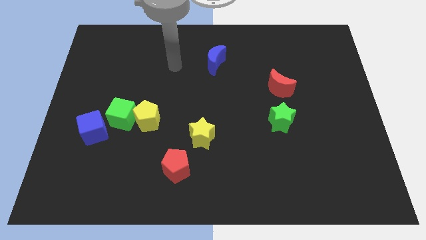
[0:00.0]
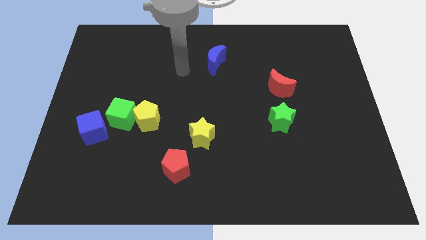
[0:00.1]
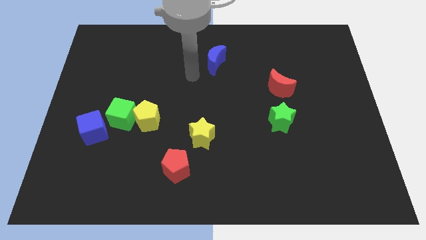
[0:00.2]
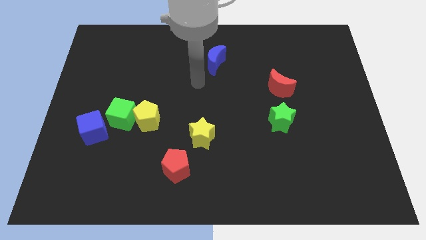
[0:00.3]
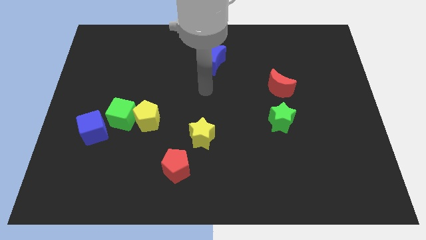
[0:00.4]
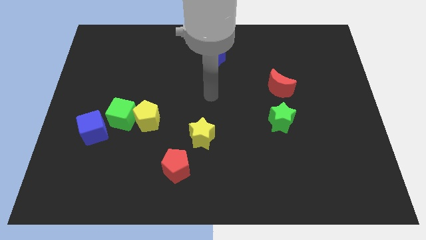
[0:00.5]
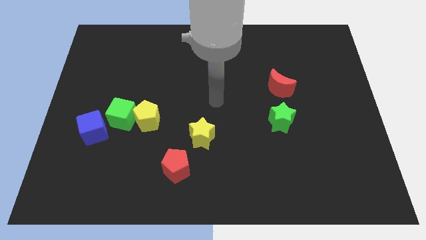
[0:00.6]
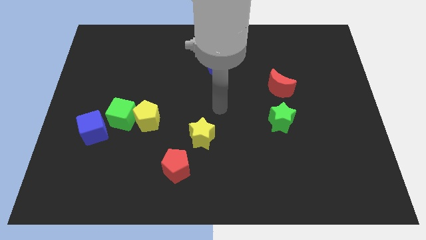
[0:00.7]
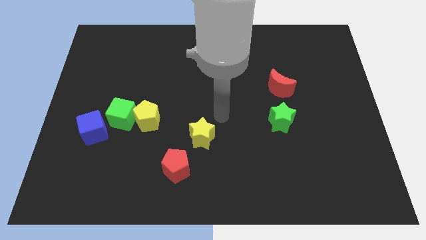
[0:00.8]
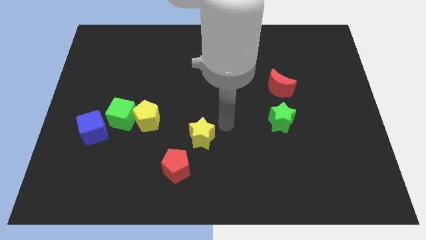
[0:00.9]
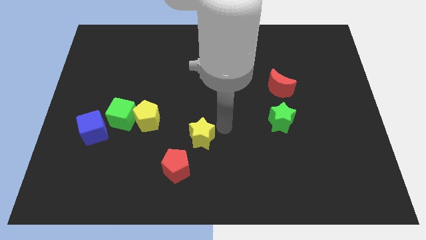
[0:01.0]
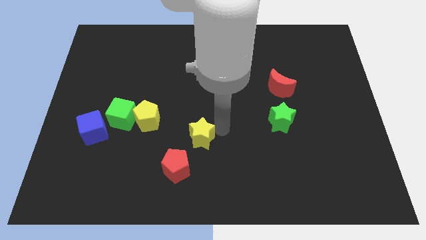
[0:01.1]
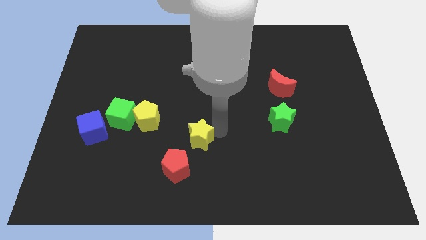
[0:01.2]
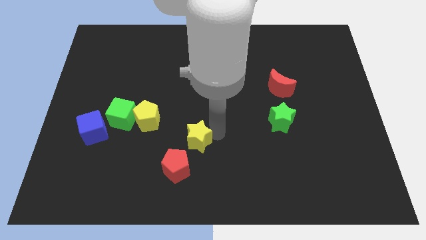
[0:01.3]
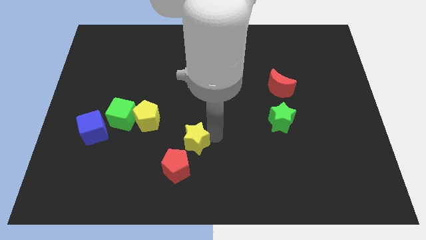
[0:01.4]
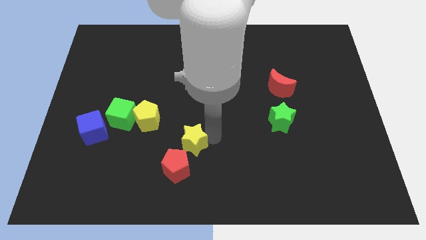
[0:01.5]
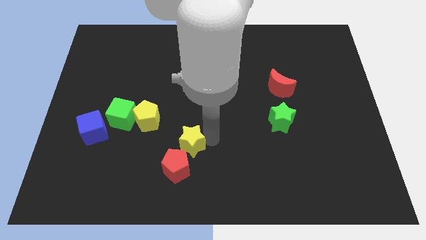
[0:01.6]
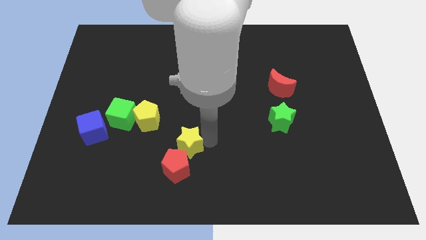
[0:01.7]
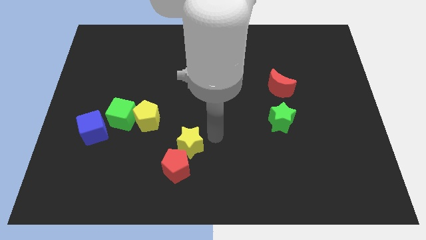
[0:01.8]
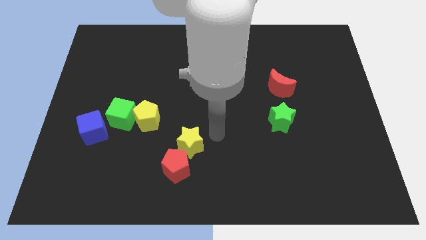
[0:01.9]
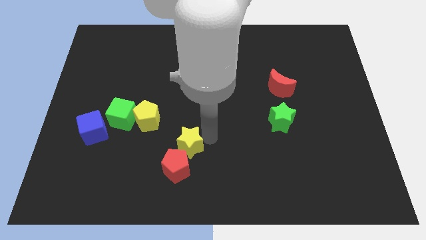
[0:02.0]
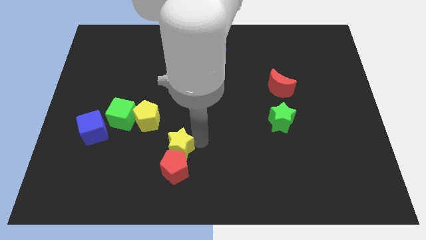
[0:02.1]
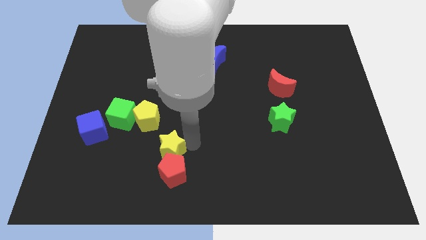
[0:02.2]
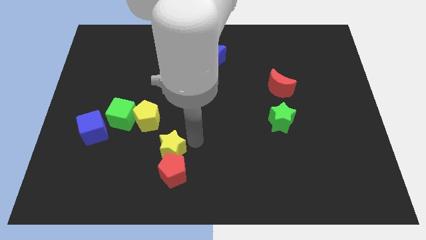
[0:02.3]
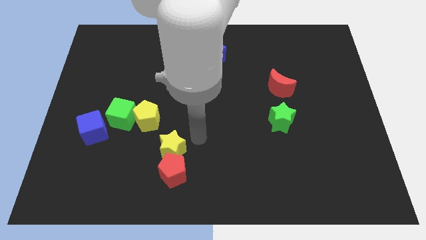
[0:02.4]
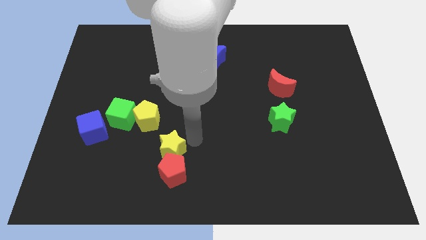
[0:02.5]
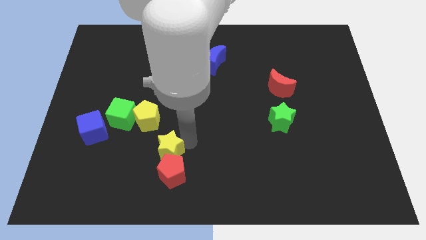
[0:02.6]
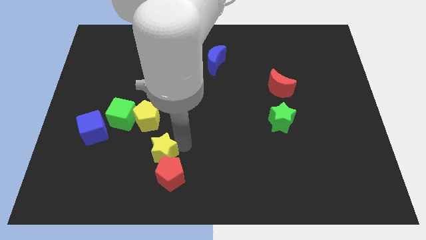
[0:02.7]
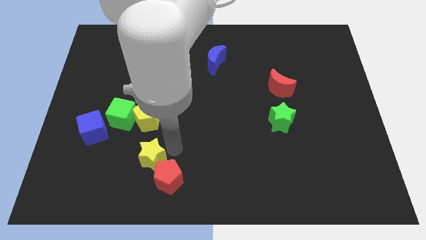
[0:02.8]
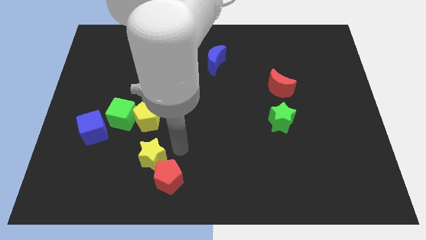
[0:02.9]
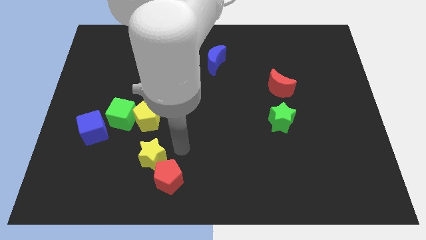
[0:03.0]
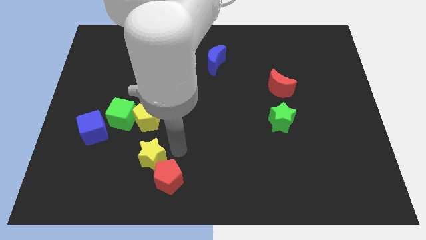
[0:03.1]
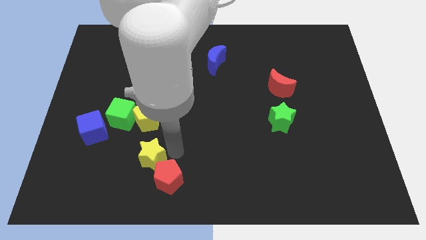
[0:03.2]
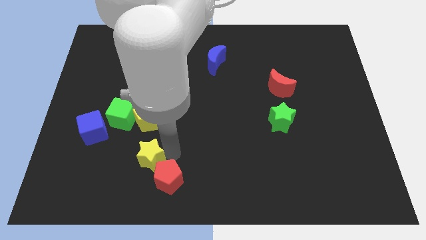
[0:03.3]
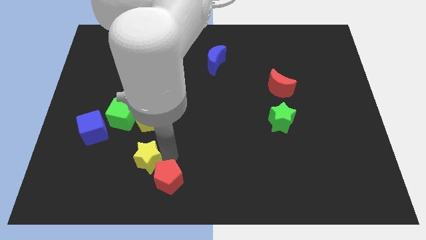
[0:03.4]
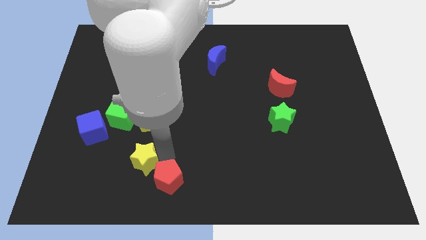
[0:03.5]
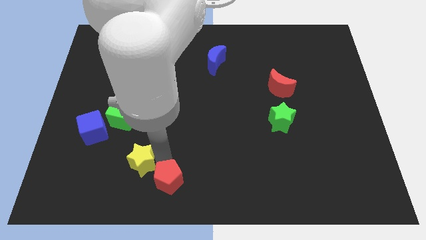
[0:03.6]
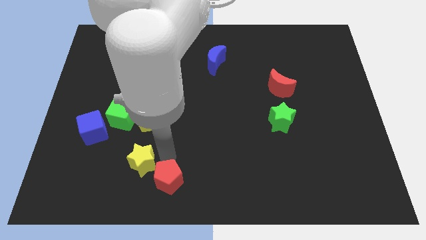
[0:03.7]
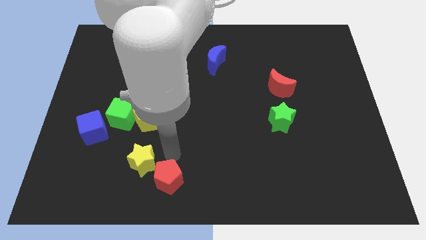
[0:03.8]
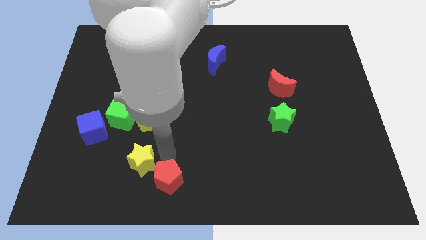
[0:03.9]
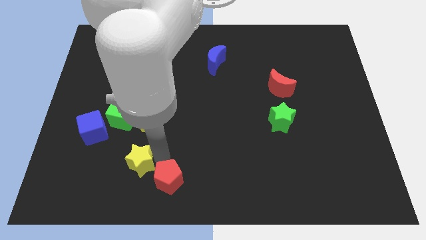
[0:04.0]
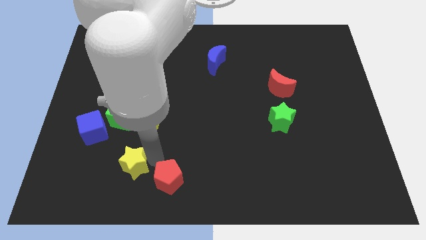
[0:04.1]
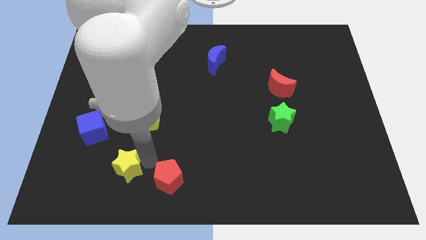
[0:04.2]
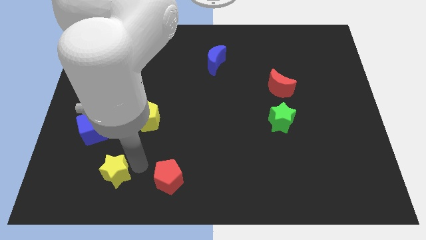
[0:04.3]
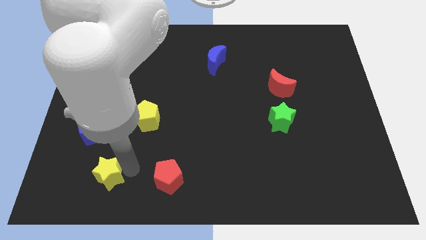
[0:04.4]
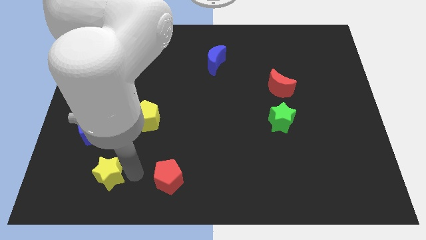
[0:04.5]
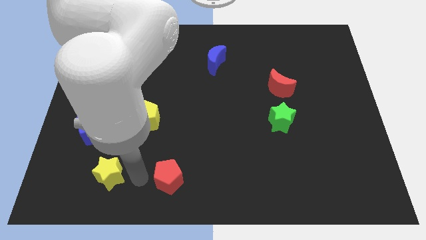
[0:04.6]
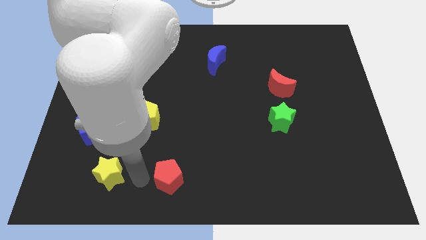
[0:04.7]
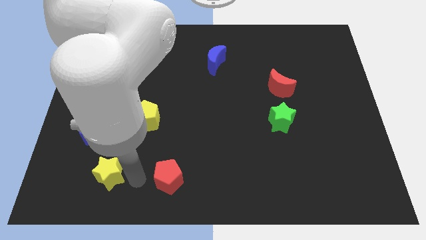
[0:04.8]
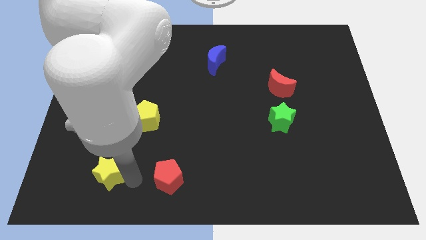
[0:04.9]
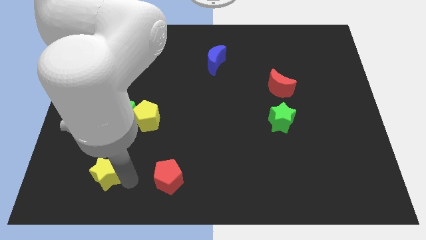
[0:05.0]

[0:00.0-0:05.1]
slide the yellow star to the bottom of the blue cube

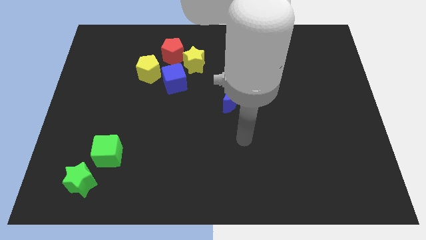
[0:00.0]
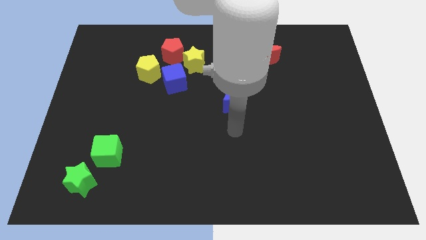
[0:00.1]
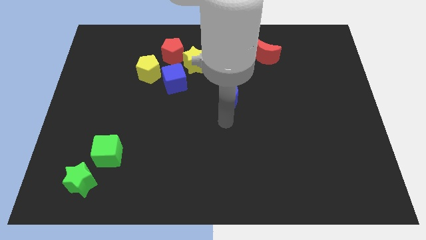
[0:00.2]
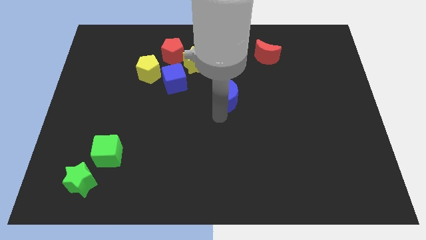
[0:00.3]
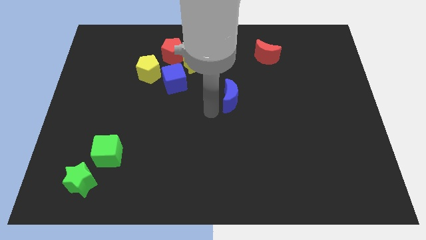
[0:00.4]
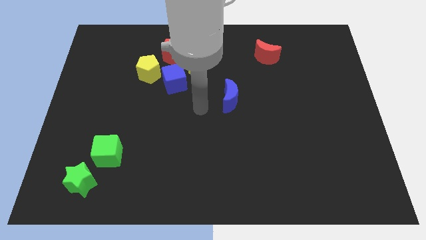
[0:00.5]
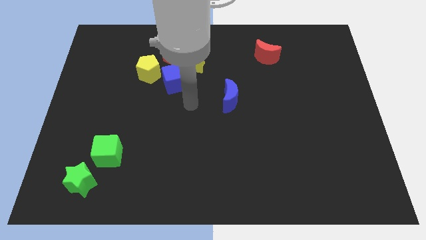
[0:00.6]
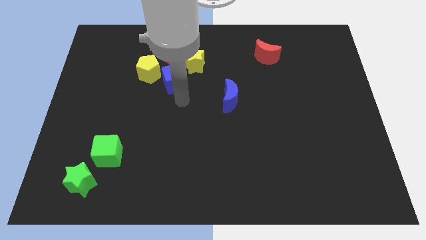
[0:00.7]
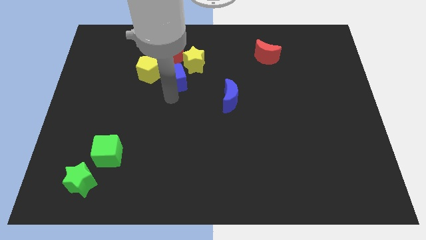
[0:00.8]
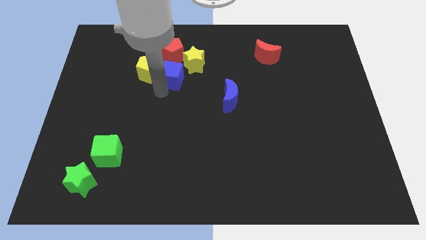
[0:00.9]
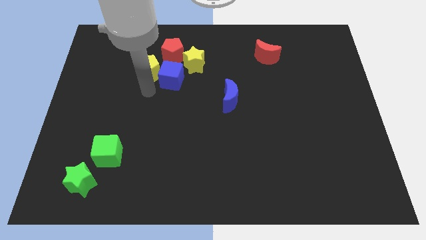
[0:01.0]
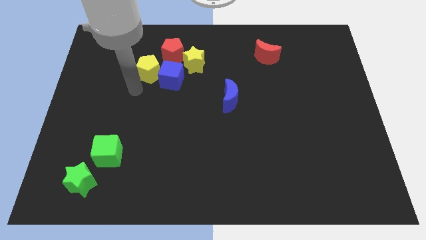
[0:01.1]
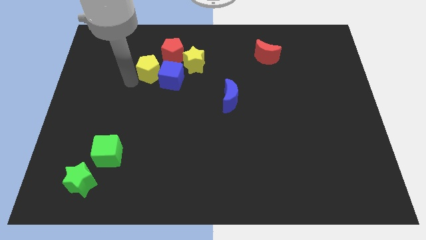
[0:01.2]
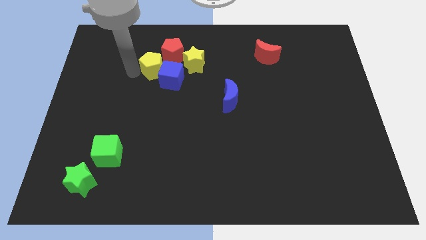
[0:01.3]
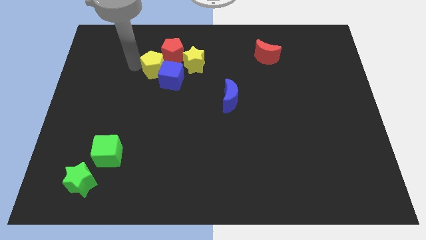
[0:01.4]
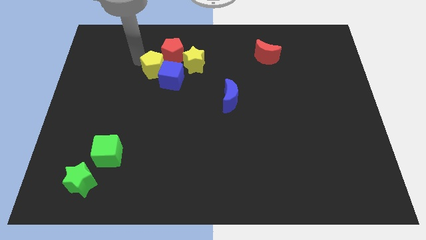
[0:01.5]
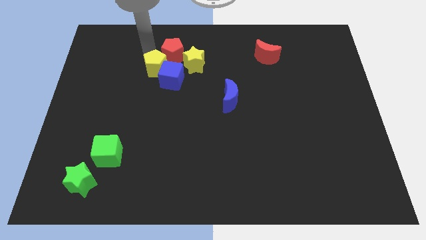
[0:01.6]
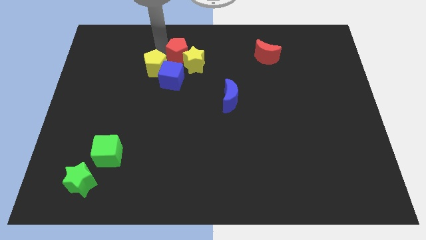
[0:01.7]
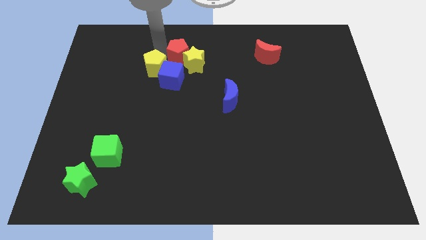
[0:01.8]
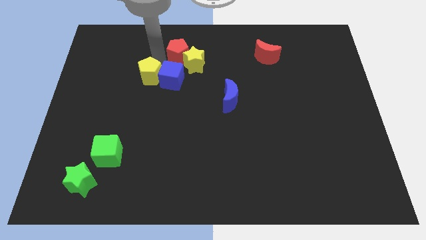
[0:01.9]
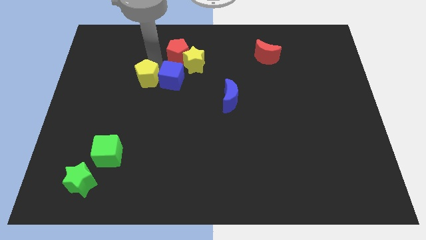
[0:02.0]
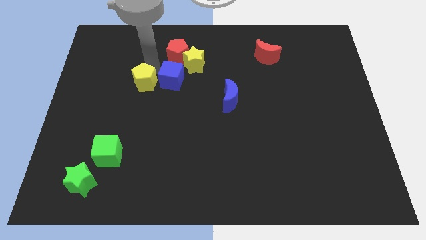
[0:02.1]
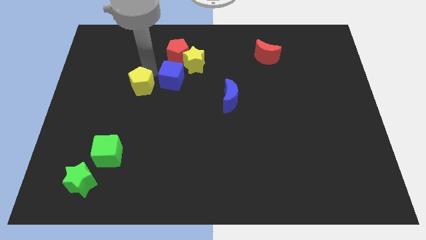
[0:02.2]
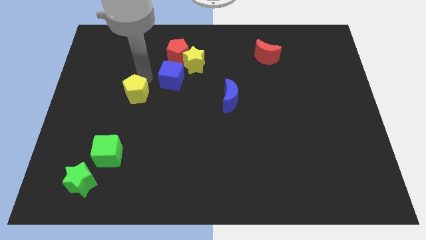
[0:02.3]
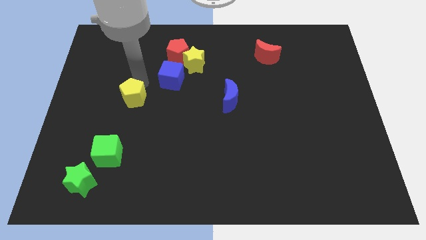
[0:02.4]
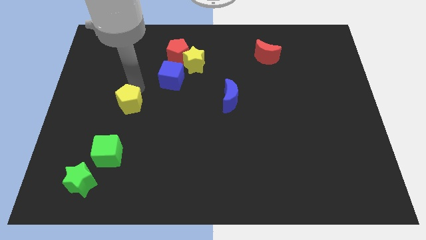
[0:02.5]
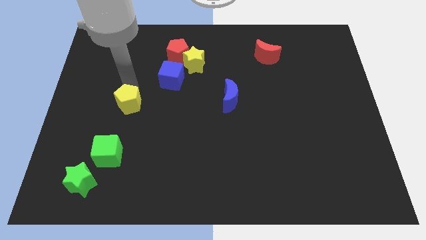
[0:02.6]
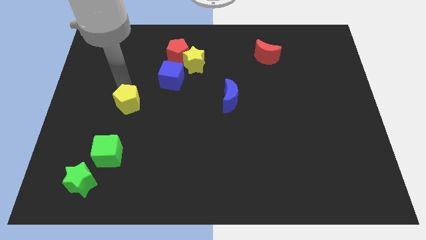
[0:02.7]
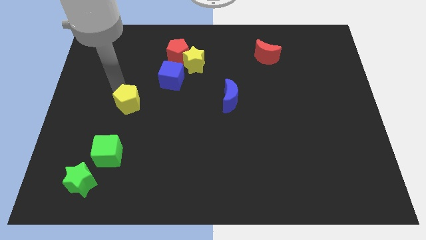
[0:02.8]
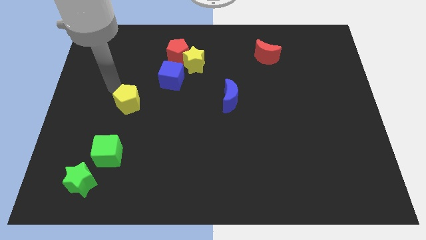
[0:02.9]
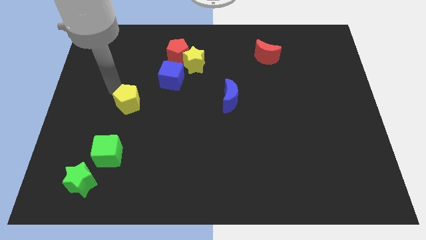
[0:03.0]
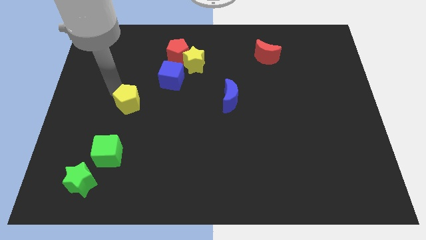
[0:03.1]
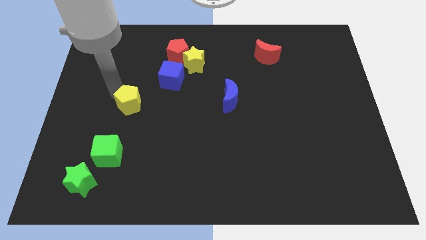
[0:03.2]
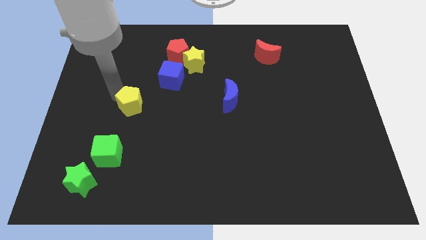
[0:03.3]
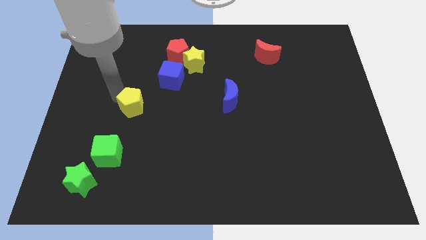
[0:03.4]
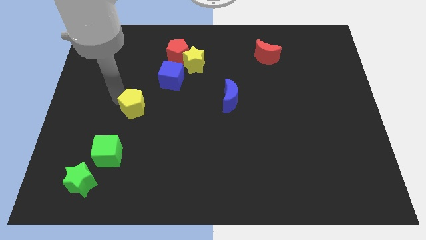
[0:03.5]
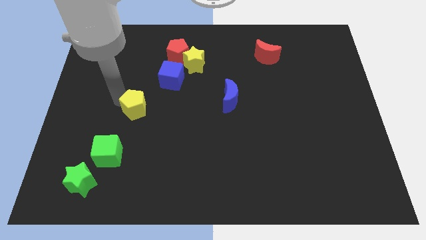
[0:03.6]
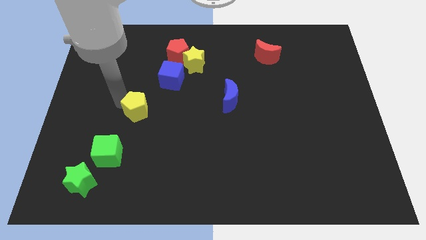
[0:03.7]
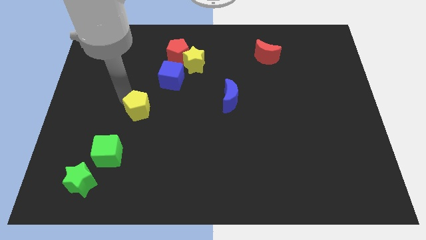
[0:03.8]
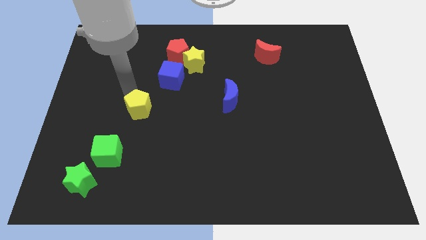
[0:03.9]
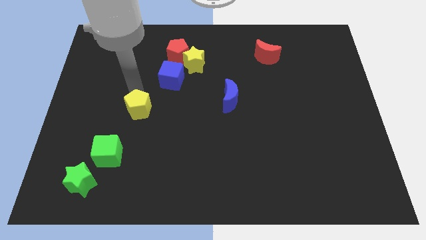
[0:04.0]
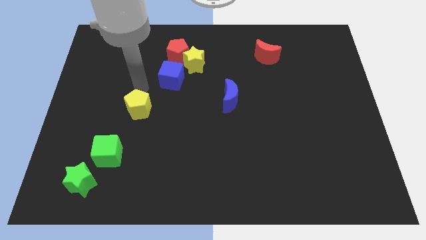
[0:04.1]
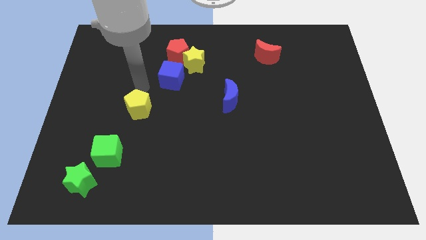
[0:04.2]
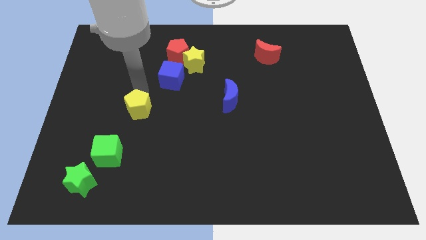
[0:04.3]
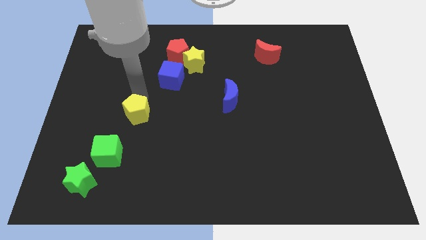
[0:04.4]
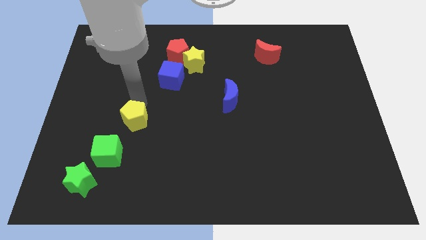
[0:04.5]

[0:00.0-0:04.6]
slide the yellow pentagon to the top right side of the green cube
